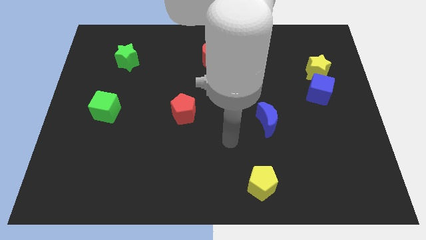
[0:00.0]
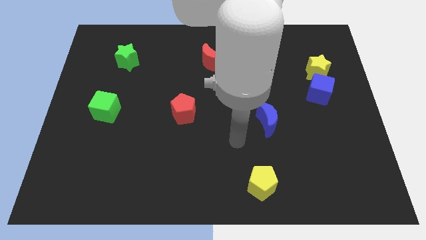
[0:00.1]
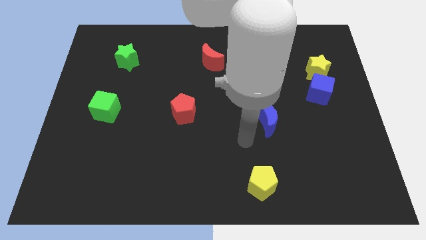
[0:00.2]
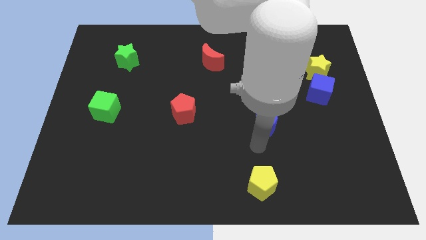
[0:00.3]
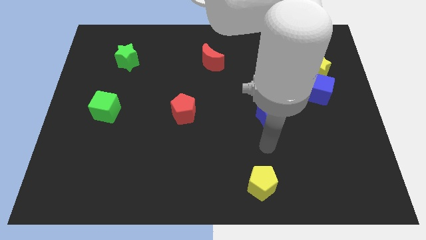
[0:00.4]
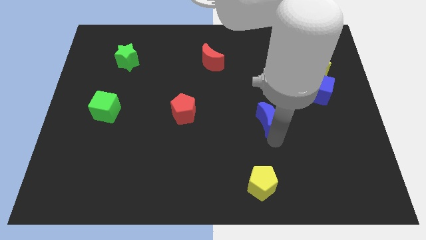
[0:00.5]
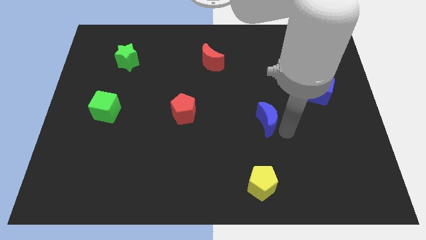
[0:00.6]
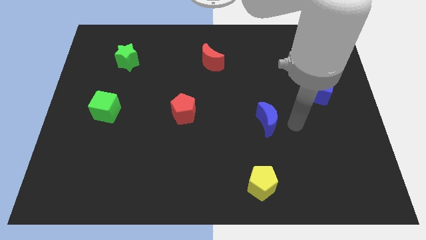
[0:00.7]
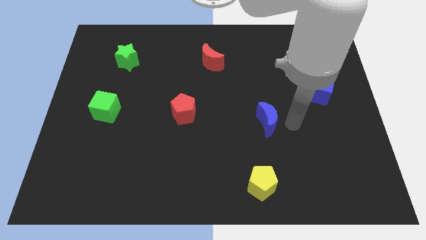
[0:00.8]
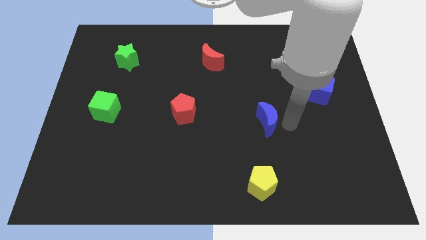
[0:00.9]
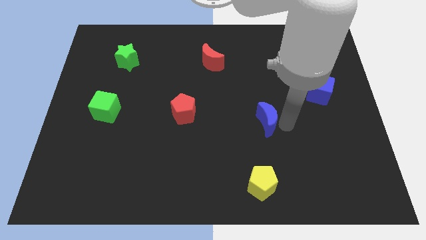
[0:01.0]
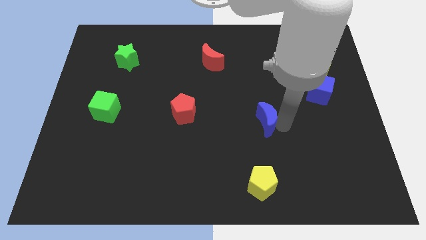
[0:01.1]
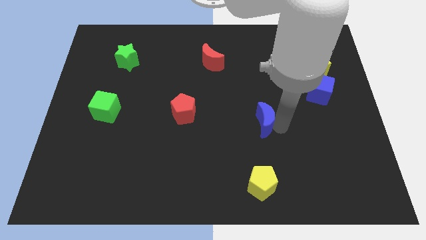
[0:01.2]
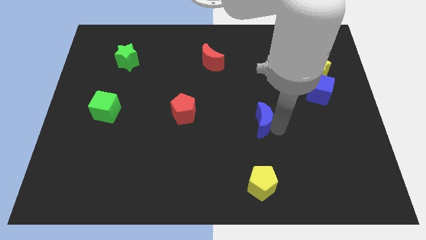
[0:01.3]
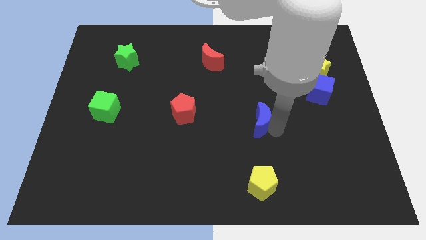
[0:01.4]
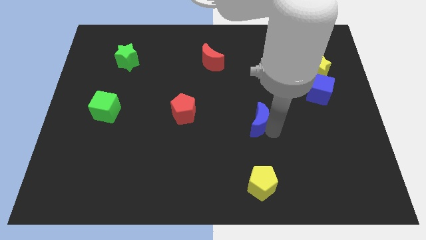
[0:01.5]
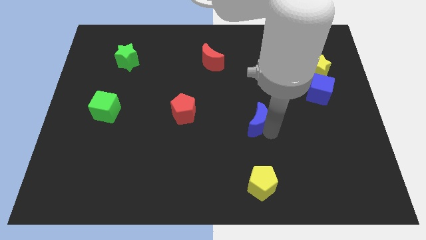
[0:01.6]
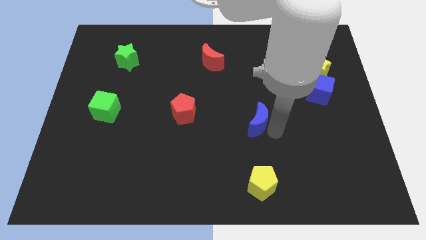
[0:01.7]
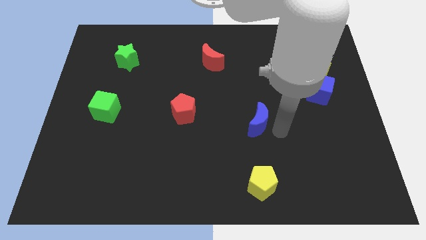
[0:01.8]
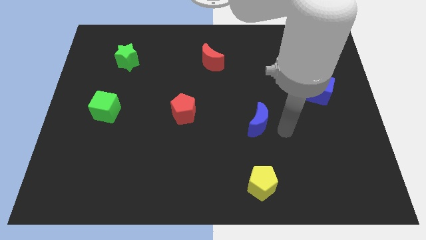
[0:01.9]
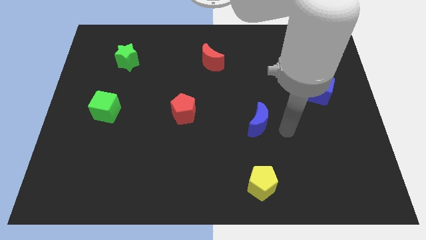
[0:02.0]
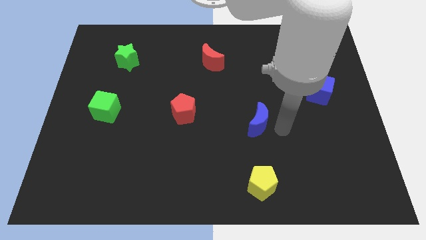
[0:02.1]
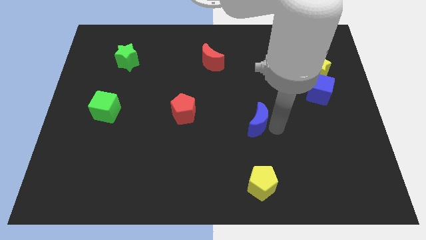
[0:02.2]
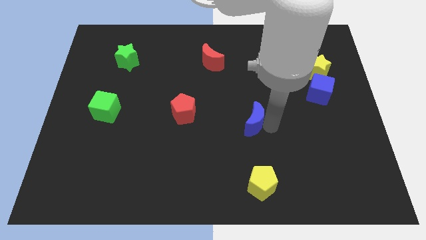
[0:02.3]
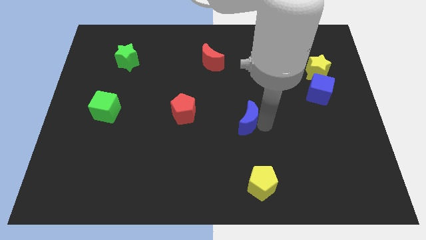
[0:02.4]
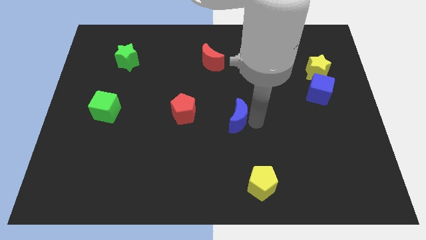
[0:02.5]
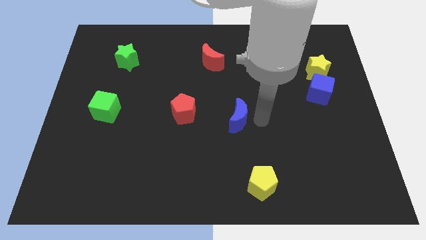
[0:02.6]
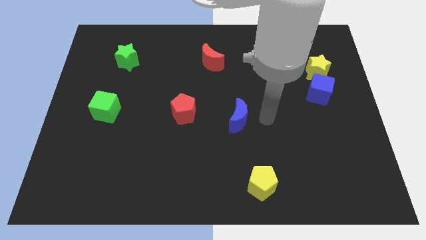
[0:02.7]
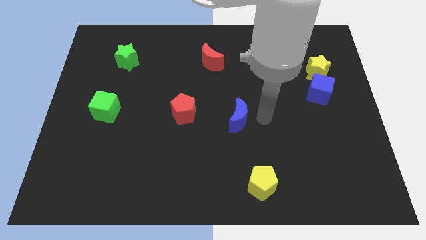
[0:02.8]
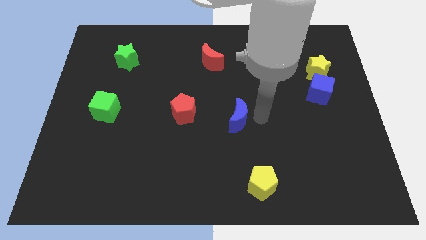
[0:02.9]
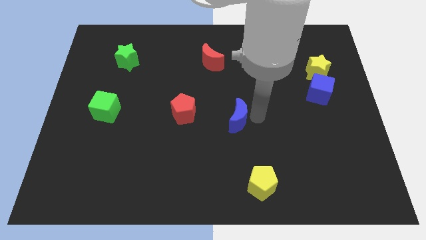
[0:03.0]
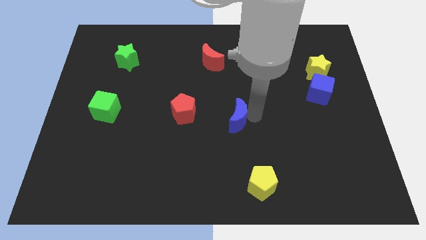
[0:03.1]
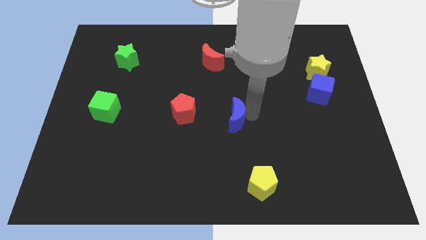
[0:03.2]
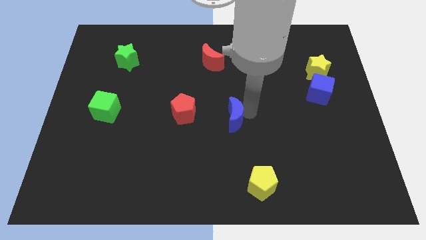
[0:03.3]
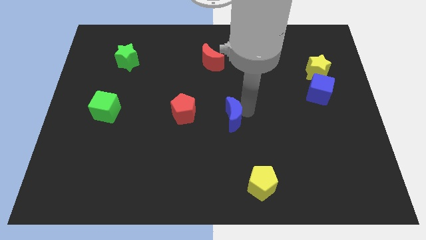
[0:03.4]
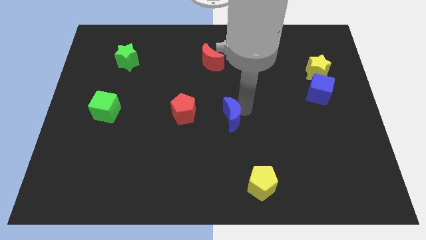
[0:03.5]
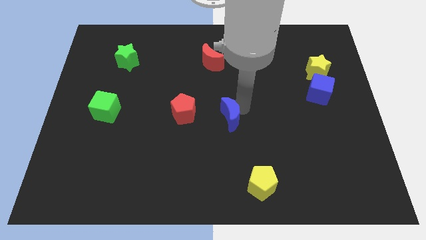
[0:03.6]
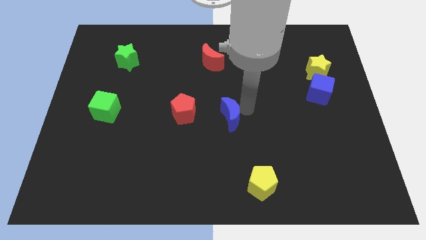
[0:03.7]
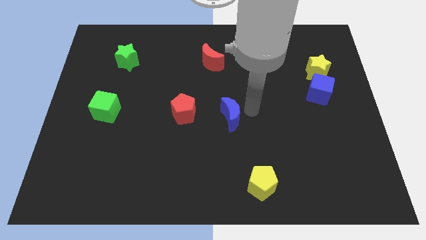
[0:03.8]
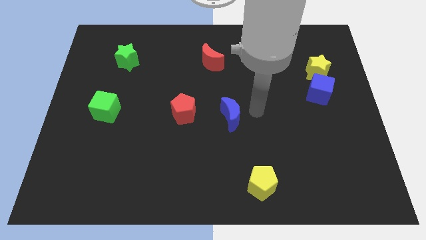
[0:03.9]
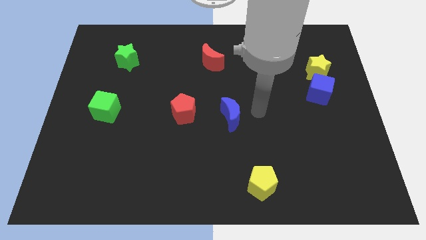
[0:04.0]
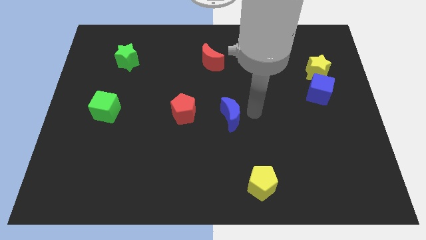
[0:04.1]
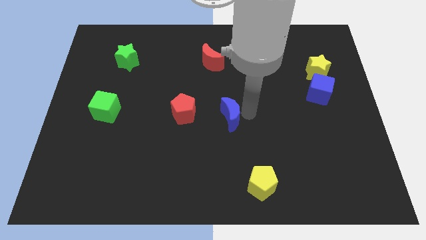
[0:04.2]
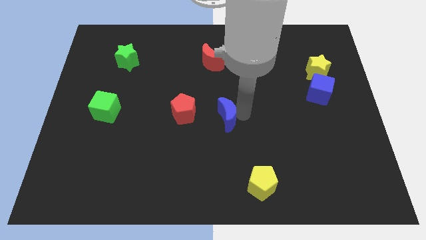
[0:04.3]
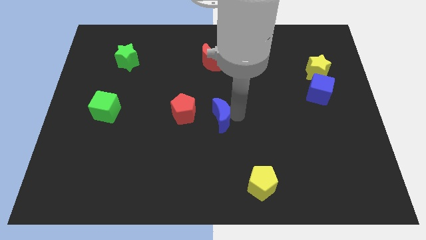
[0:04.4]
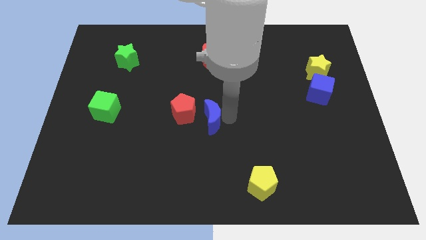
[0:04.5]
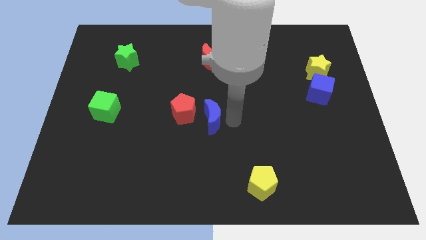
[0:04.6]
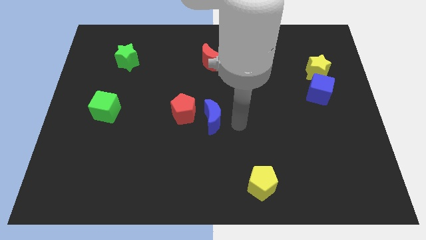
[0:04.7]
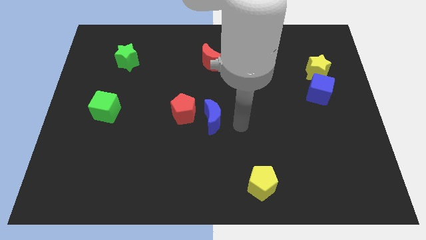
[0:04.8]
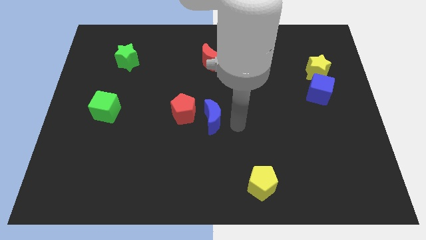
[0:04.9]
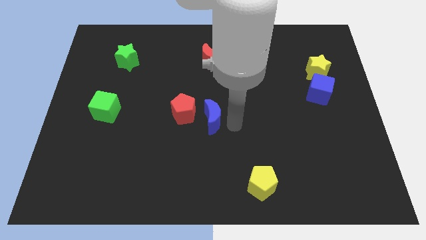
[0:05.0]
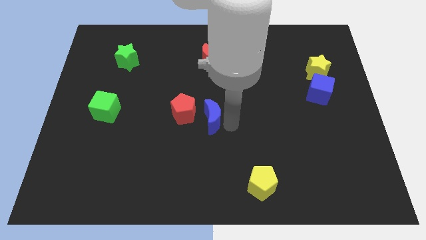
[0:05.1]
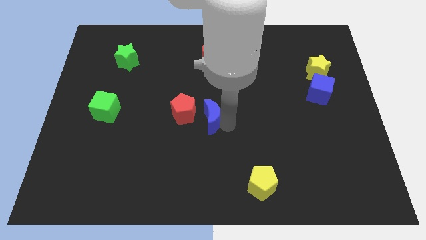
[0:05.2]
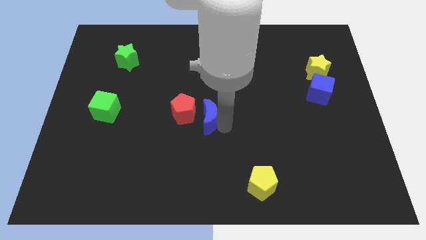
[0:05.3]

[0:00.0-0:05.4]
push the blue moon next to the red pentagon

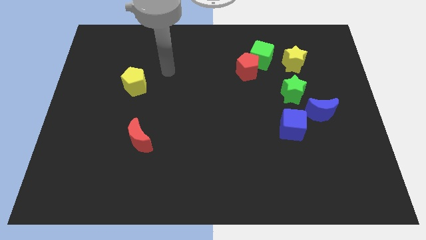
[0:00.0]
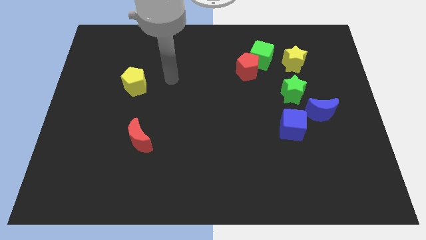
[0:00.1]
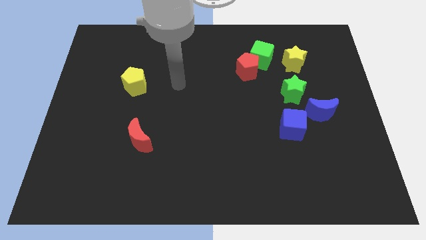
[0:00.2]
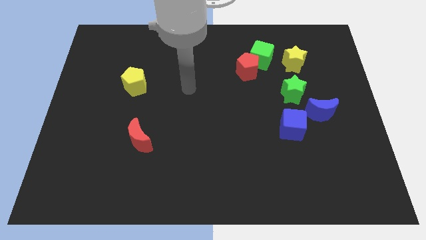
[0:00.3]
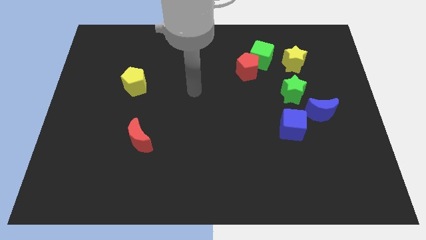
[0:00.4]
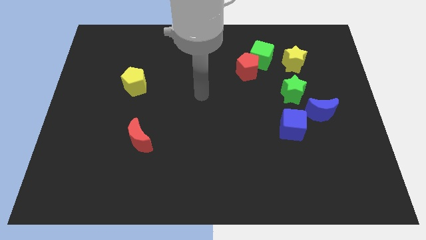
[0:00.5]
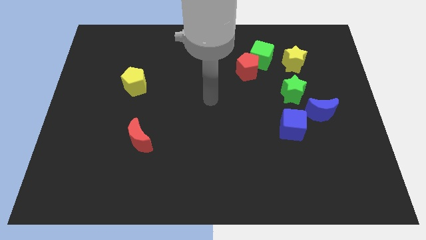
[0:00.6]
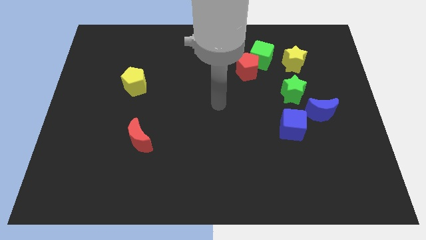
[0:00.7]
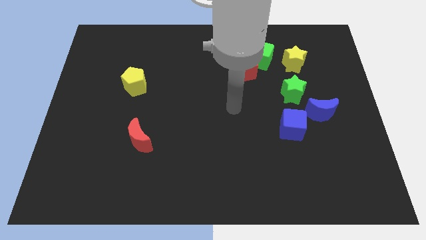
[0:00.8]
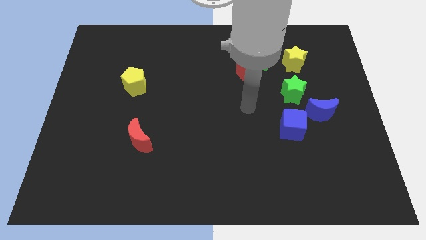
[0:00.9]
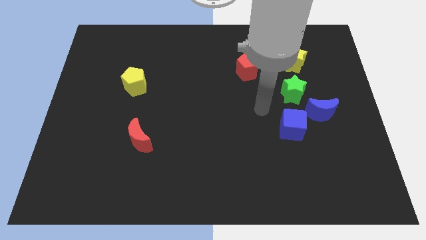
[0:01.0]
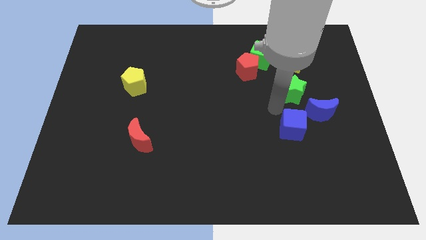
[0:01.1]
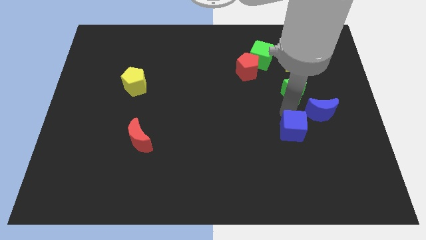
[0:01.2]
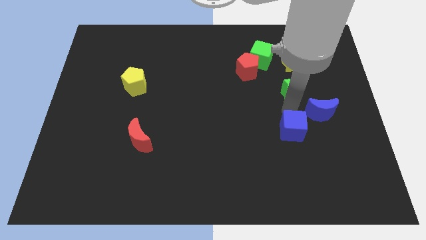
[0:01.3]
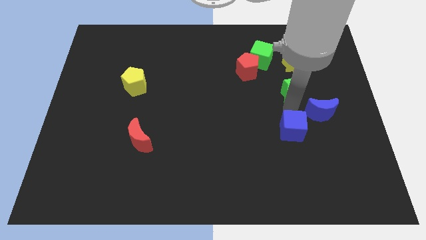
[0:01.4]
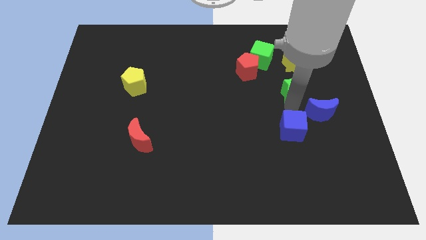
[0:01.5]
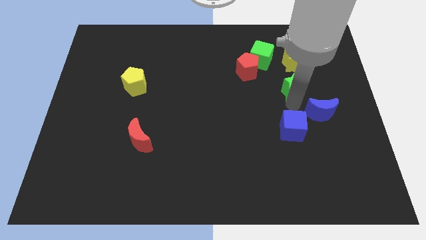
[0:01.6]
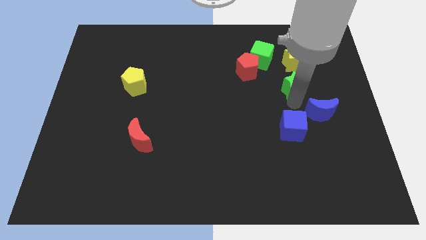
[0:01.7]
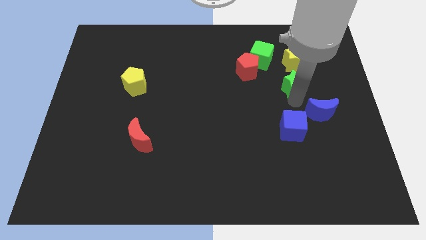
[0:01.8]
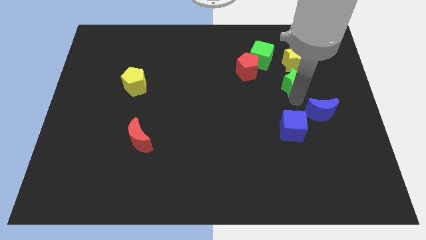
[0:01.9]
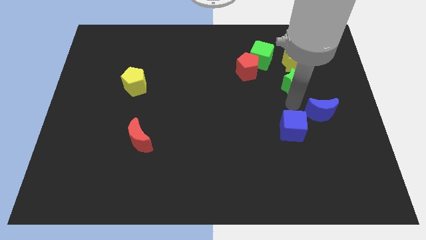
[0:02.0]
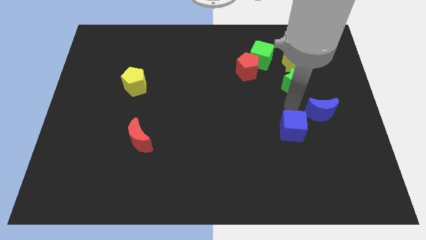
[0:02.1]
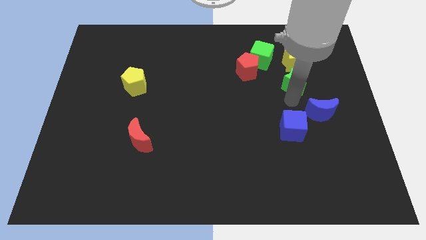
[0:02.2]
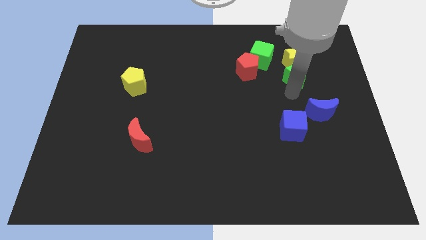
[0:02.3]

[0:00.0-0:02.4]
put the green star close to the yellow star
